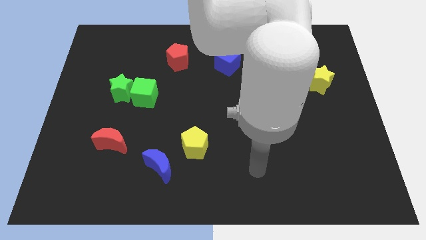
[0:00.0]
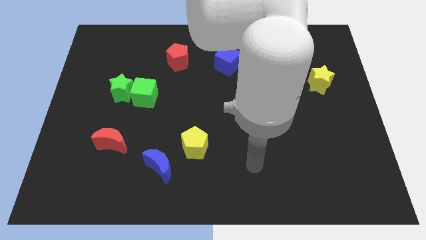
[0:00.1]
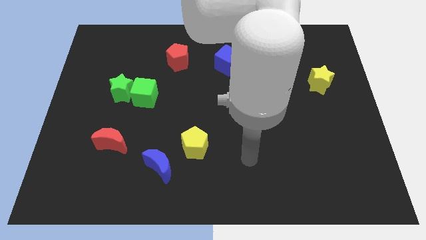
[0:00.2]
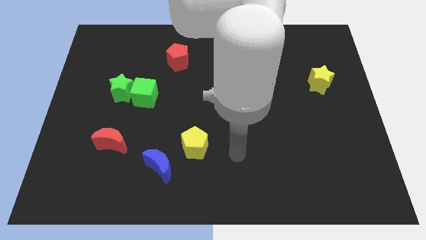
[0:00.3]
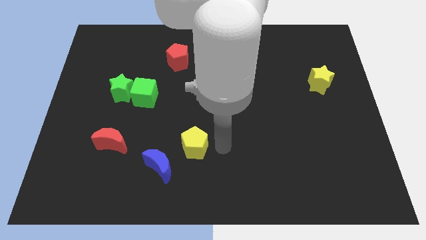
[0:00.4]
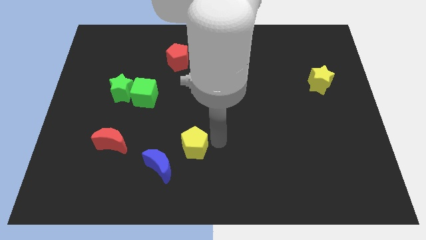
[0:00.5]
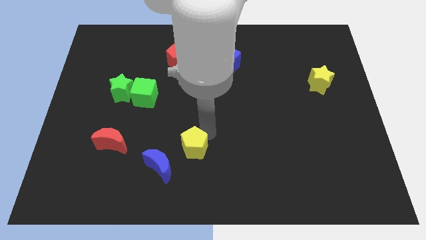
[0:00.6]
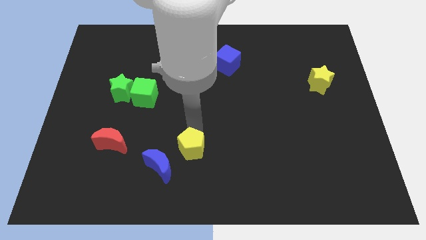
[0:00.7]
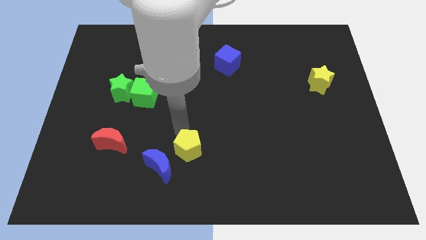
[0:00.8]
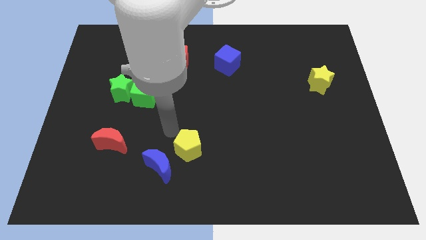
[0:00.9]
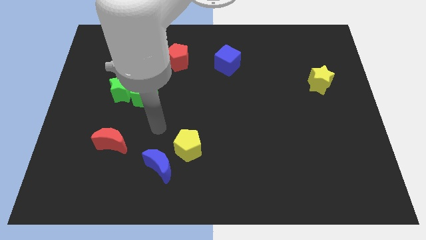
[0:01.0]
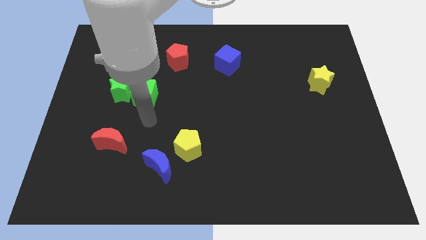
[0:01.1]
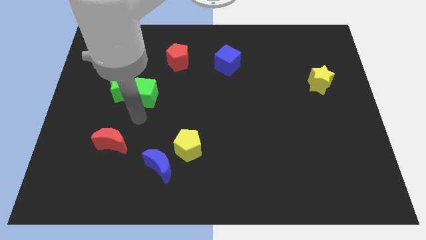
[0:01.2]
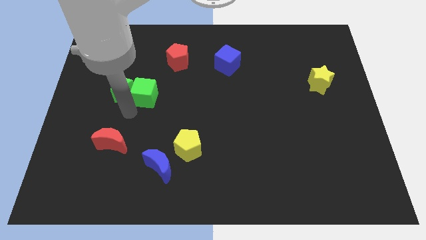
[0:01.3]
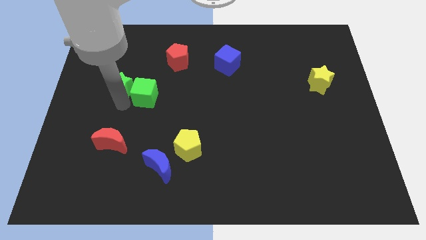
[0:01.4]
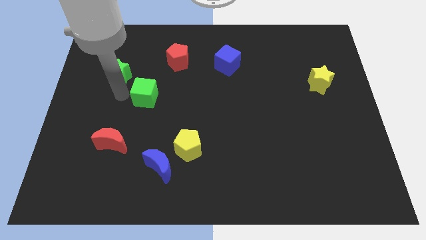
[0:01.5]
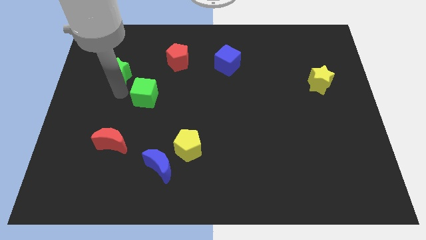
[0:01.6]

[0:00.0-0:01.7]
pull the green cube apart from the green star

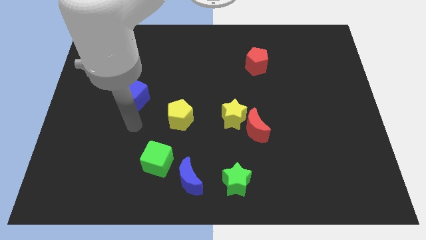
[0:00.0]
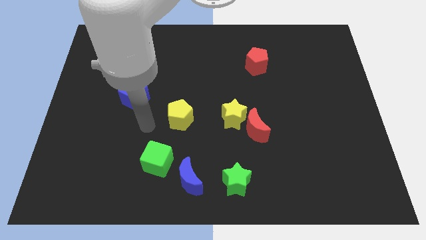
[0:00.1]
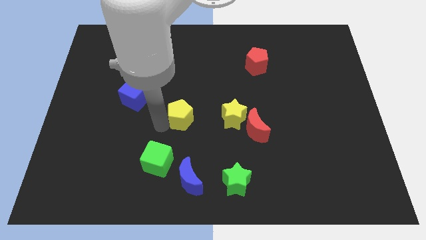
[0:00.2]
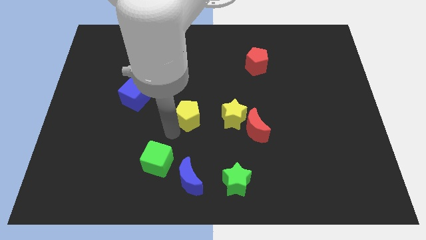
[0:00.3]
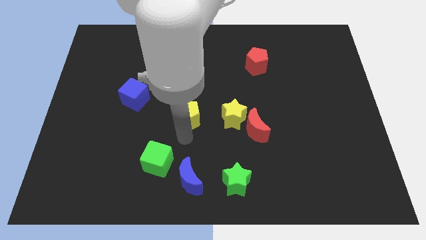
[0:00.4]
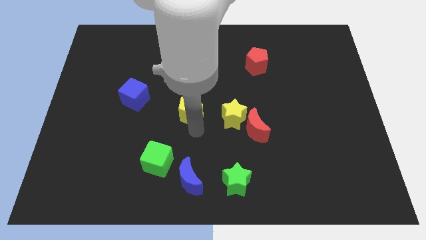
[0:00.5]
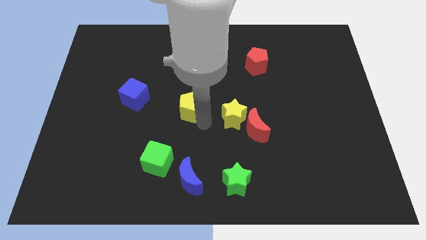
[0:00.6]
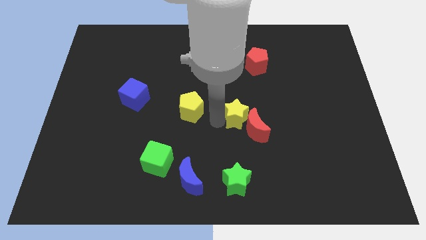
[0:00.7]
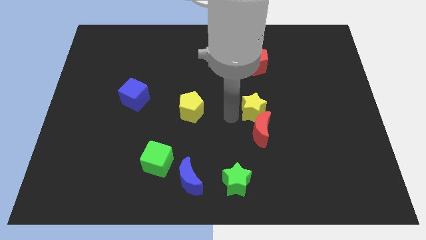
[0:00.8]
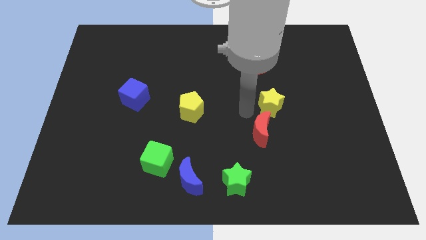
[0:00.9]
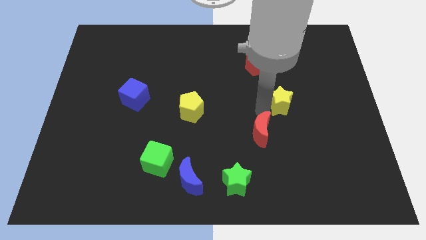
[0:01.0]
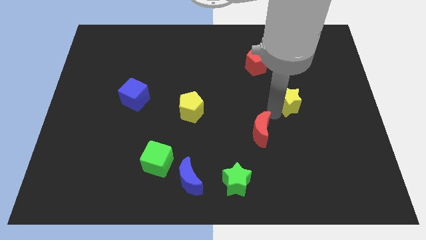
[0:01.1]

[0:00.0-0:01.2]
move the red moon away from the yellow star

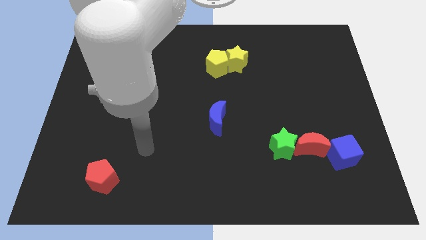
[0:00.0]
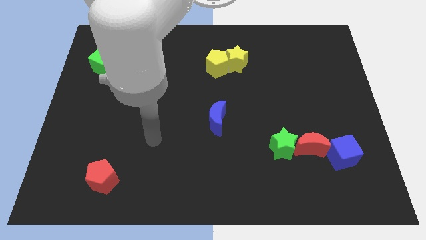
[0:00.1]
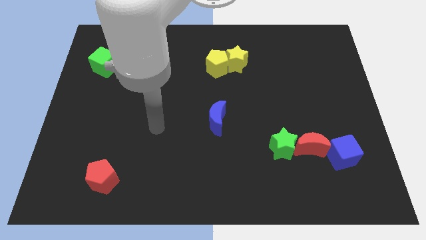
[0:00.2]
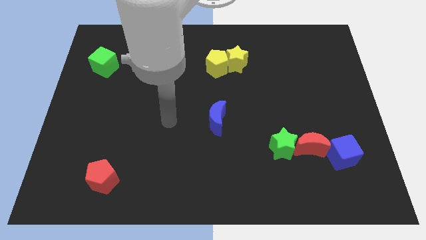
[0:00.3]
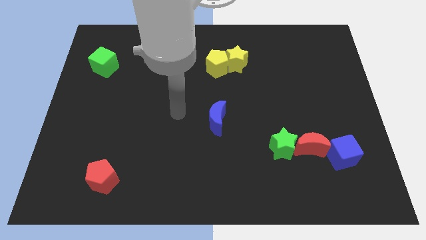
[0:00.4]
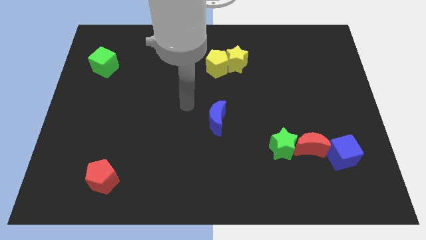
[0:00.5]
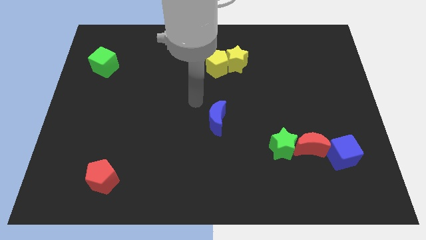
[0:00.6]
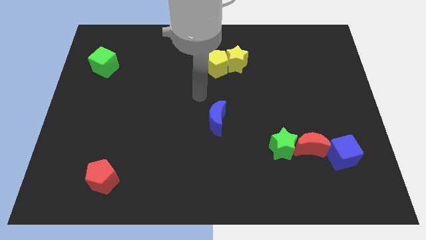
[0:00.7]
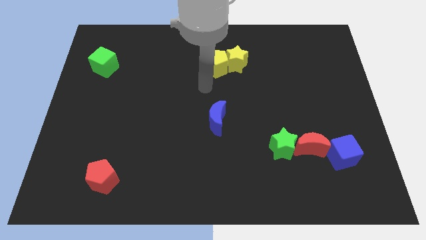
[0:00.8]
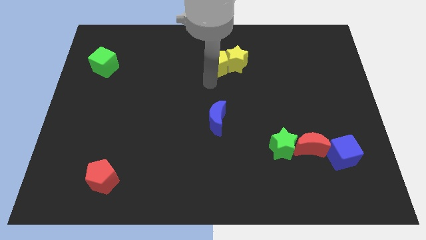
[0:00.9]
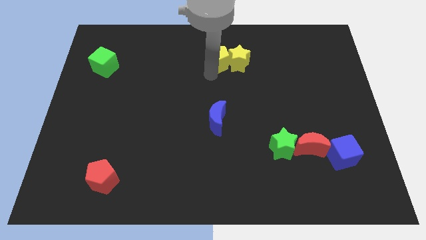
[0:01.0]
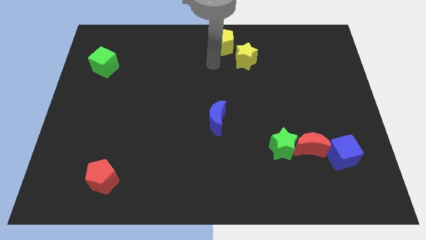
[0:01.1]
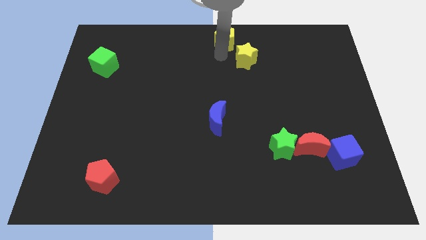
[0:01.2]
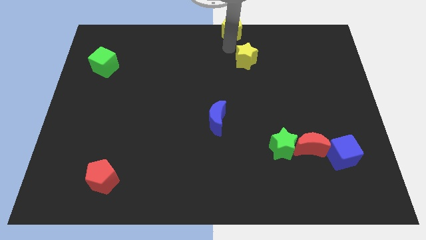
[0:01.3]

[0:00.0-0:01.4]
separate the yellow star from the yellow pentagon

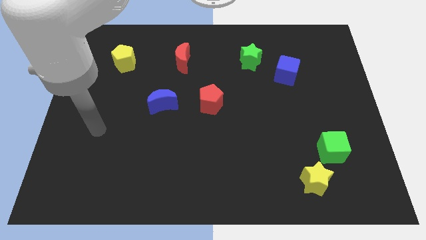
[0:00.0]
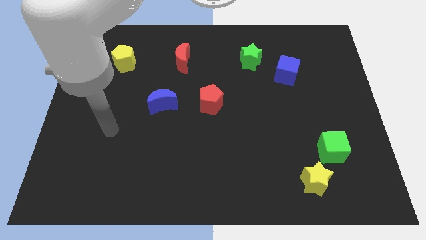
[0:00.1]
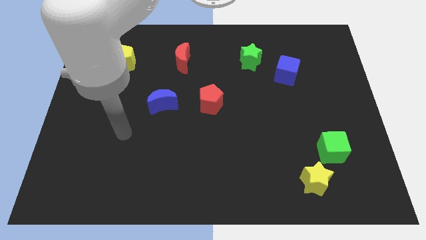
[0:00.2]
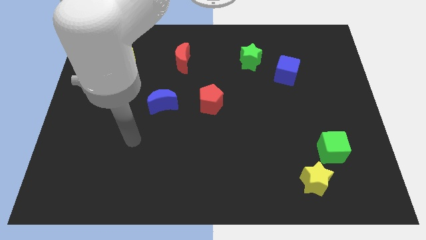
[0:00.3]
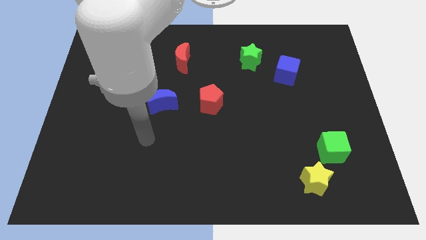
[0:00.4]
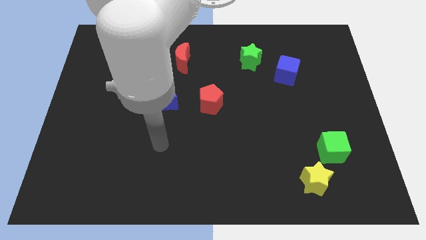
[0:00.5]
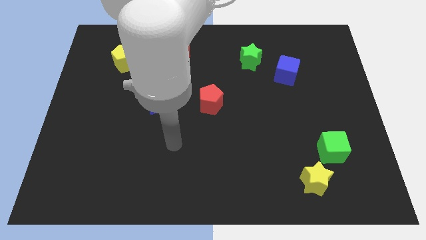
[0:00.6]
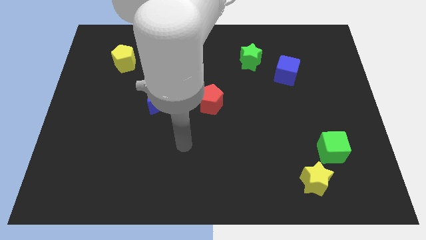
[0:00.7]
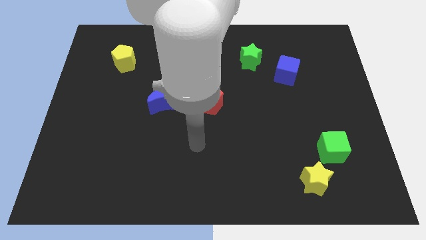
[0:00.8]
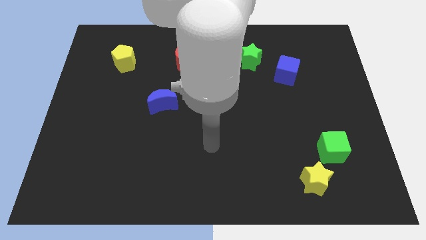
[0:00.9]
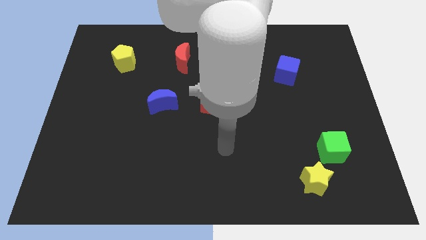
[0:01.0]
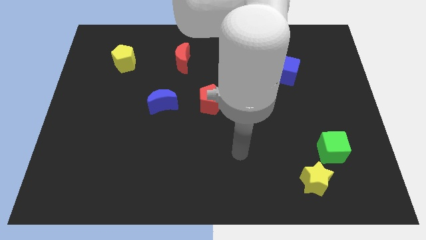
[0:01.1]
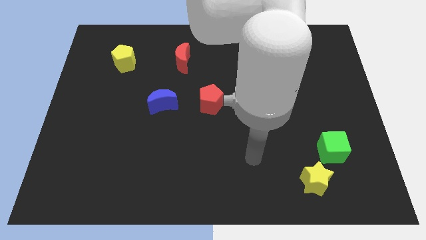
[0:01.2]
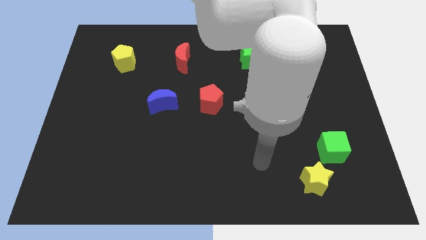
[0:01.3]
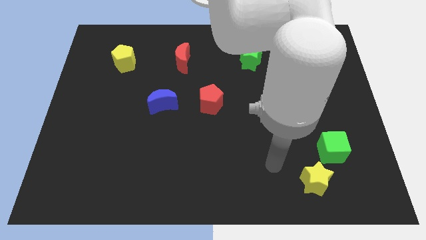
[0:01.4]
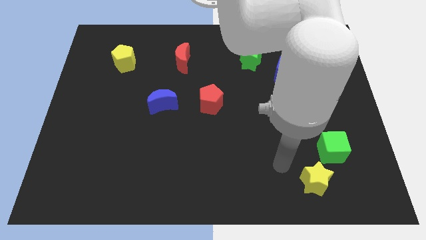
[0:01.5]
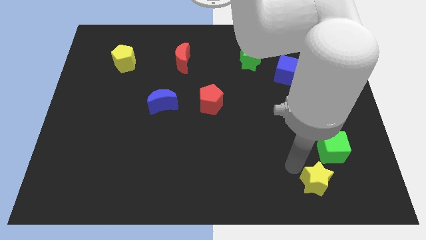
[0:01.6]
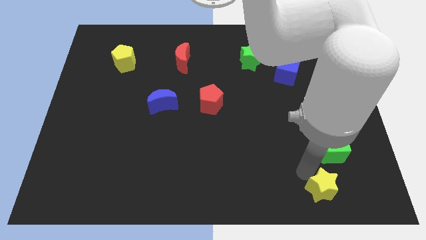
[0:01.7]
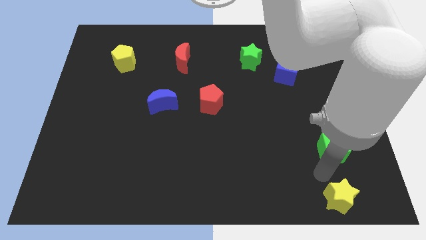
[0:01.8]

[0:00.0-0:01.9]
pull the green cube apart from the yellow star

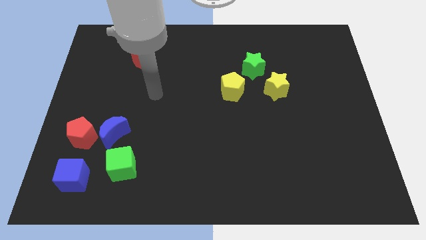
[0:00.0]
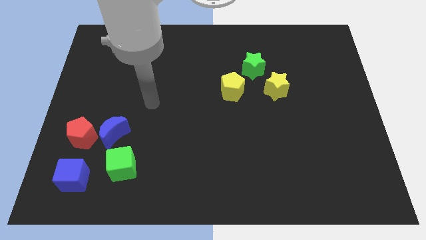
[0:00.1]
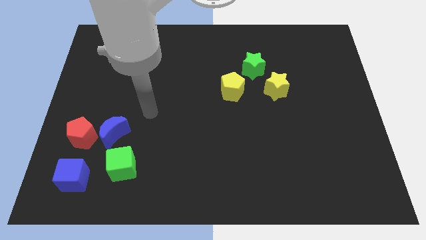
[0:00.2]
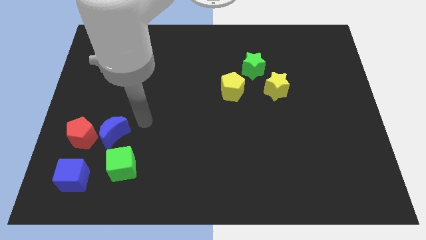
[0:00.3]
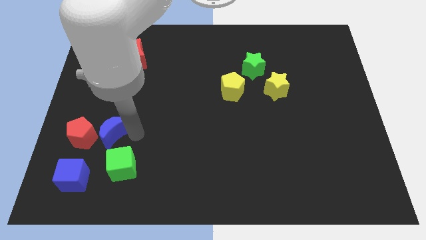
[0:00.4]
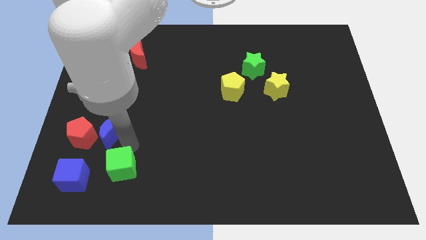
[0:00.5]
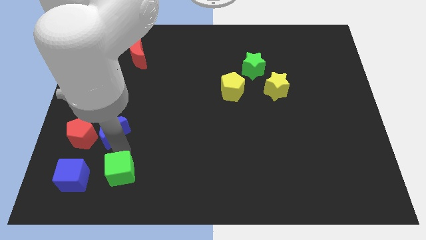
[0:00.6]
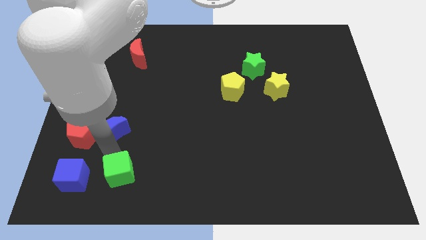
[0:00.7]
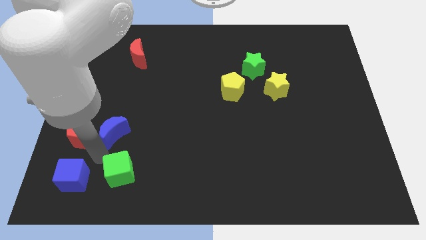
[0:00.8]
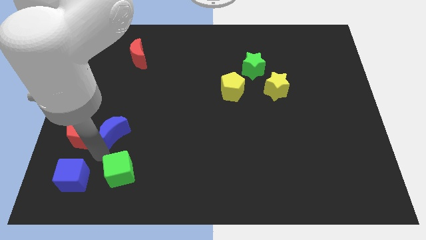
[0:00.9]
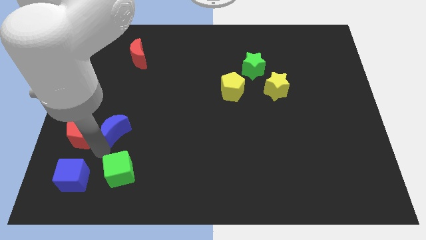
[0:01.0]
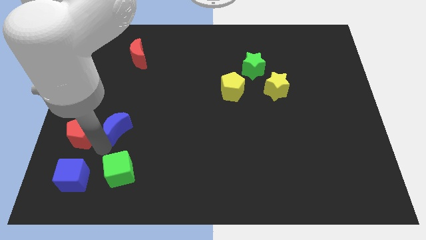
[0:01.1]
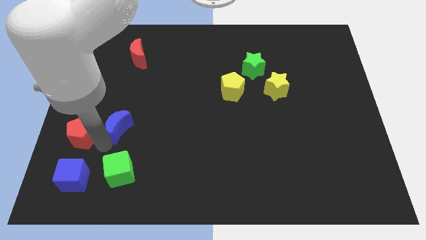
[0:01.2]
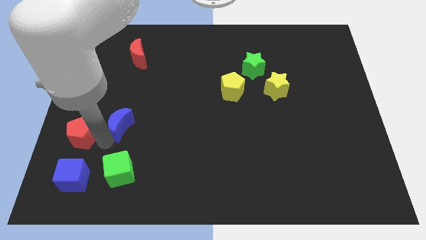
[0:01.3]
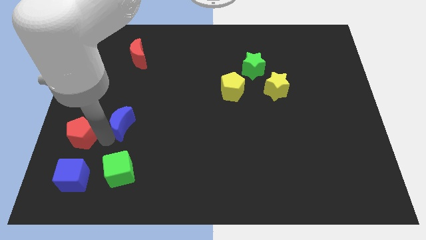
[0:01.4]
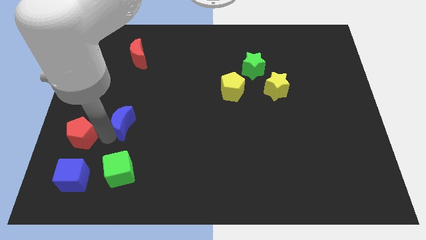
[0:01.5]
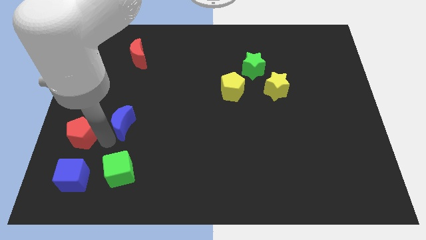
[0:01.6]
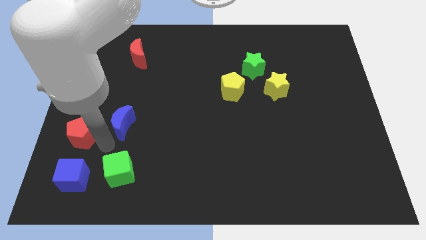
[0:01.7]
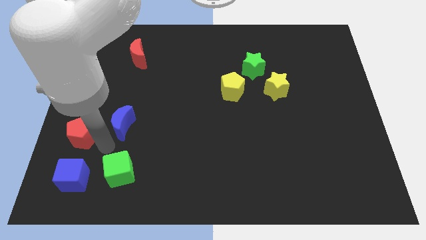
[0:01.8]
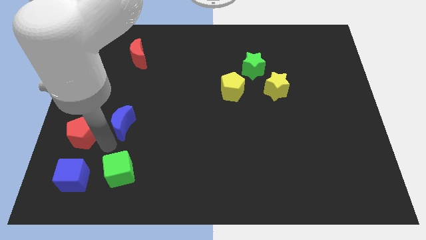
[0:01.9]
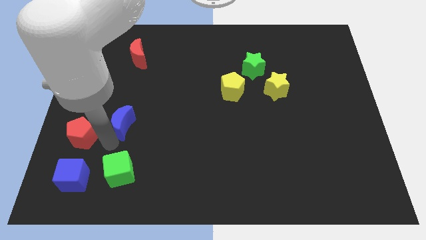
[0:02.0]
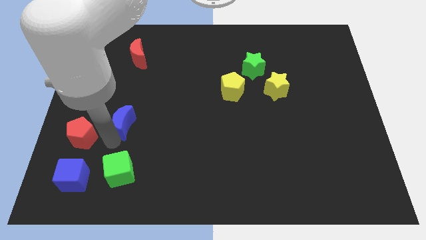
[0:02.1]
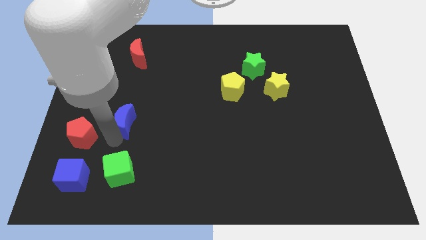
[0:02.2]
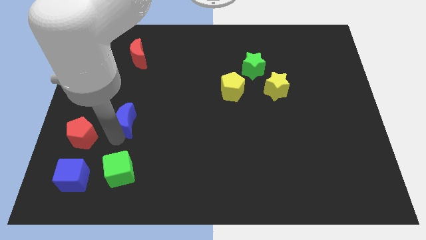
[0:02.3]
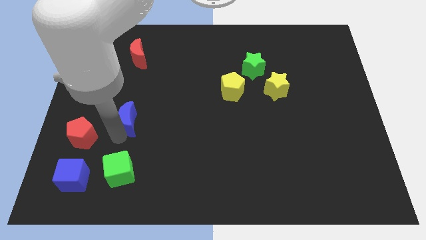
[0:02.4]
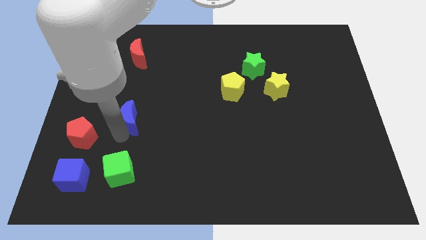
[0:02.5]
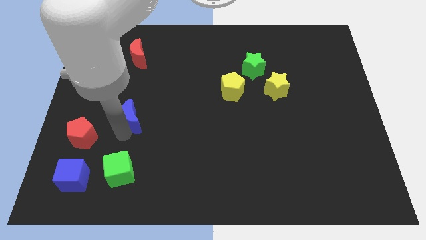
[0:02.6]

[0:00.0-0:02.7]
move the blue moon away from the red pentagon and green cube

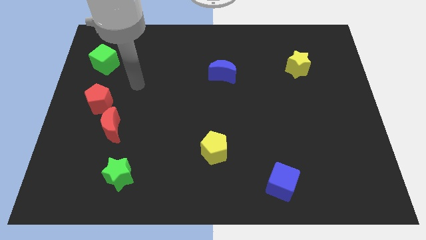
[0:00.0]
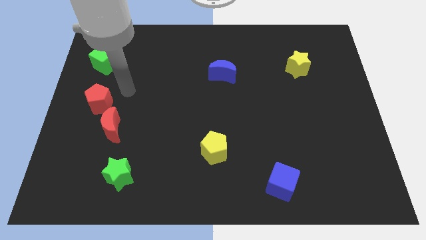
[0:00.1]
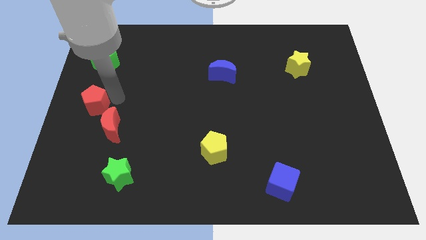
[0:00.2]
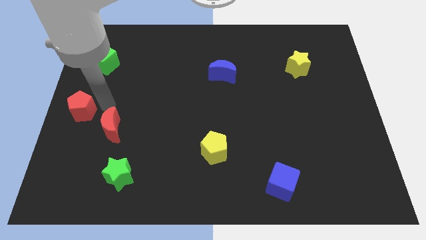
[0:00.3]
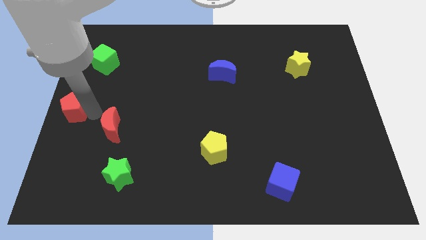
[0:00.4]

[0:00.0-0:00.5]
pull the red moon apart from the red pentagon

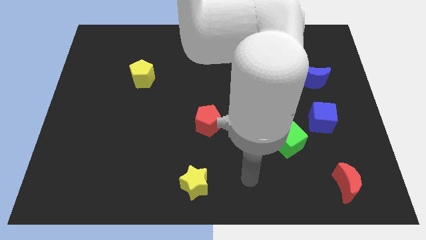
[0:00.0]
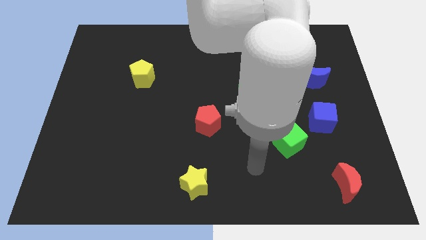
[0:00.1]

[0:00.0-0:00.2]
separate the blue cube from the green cube
